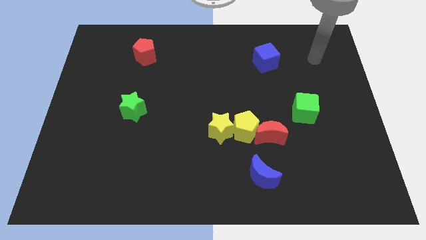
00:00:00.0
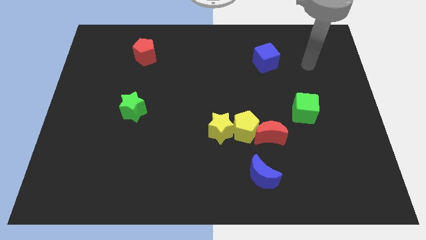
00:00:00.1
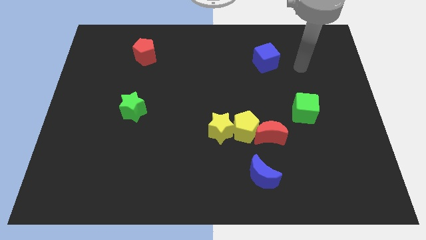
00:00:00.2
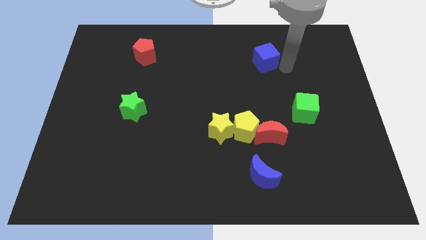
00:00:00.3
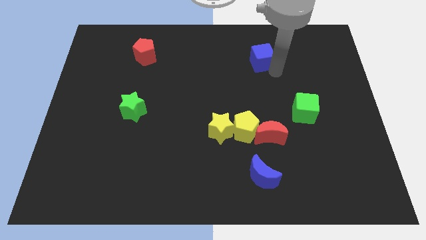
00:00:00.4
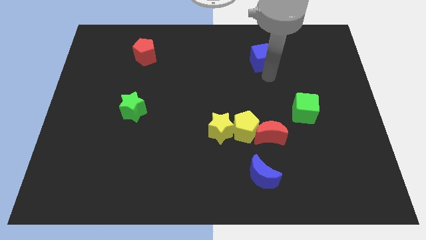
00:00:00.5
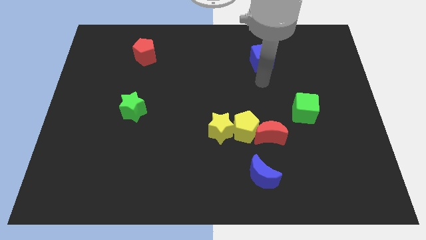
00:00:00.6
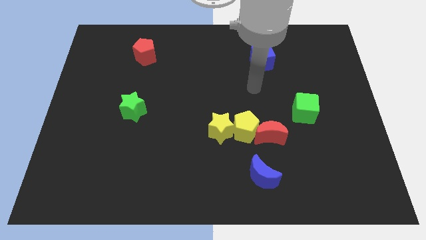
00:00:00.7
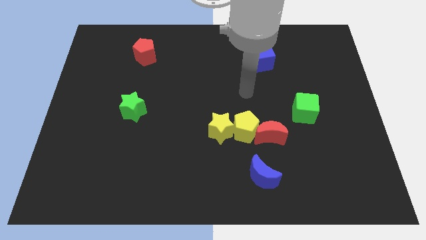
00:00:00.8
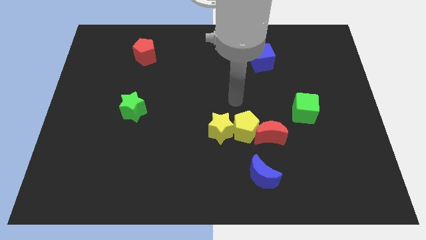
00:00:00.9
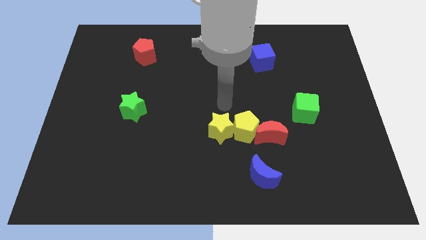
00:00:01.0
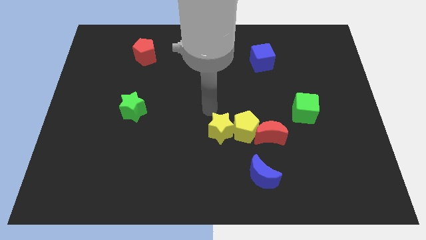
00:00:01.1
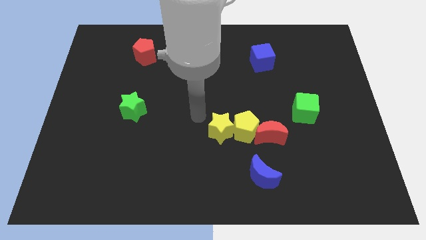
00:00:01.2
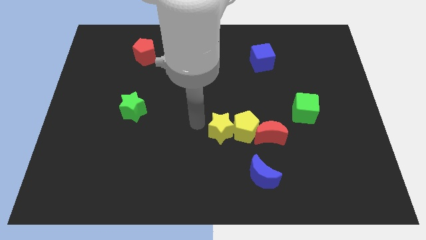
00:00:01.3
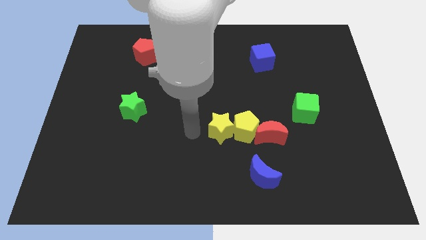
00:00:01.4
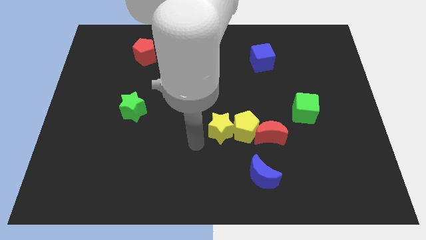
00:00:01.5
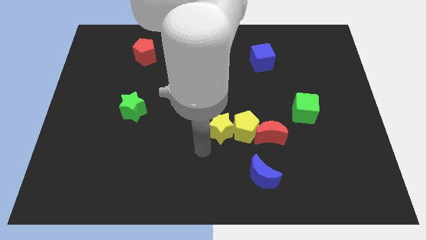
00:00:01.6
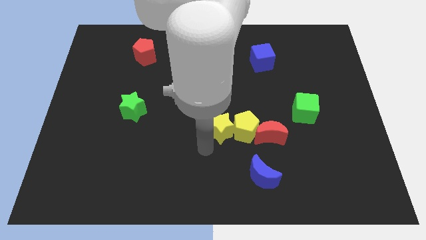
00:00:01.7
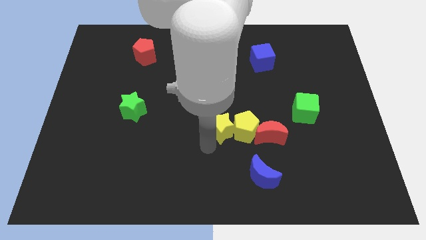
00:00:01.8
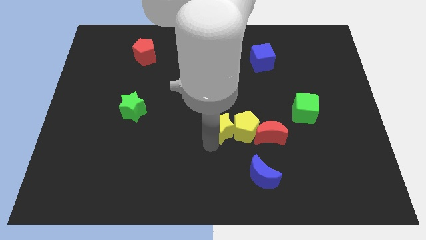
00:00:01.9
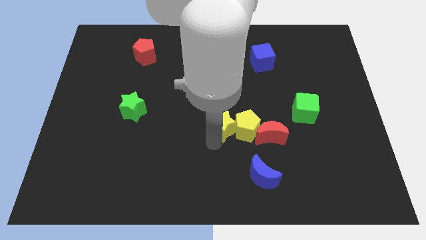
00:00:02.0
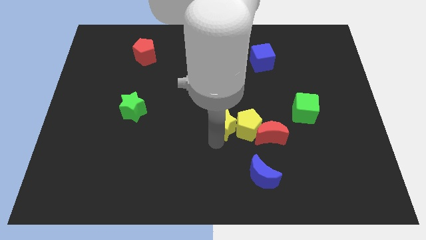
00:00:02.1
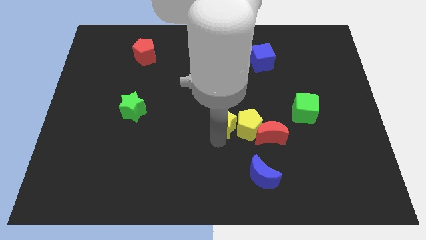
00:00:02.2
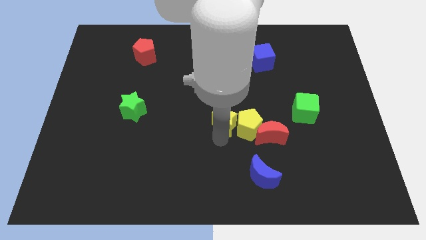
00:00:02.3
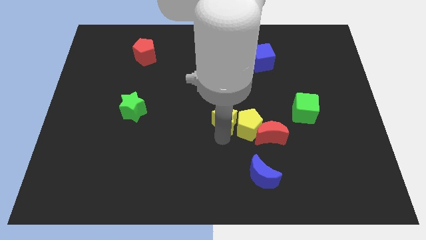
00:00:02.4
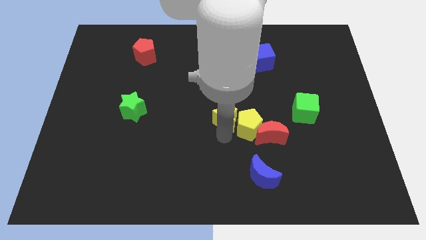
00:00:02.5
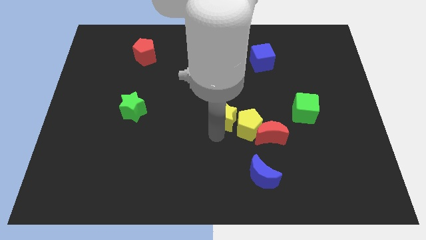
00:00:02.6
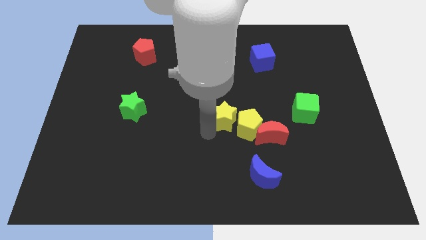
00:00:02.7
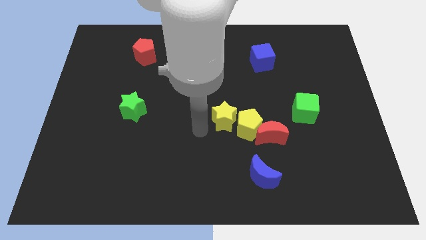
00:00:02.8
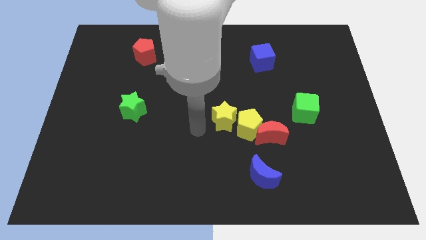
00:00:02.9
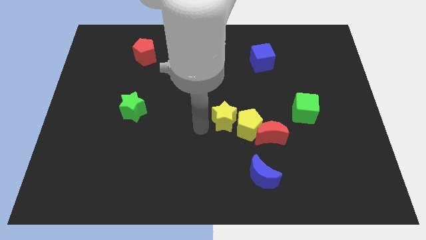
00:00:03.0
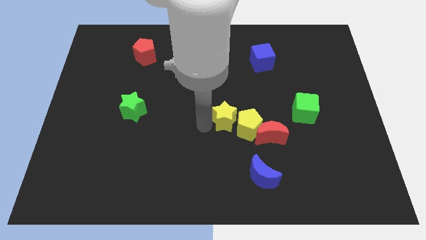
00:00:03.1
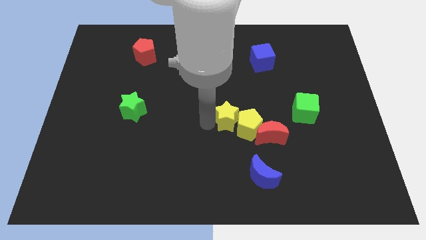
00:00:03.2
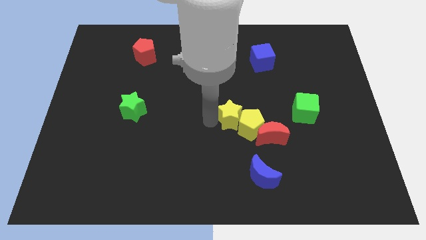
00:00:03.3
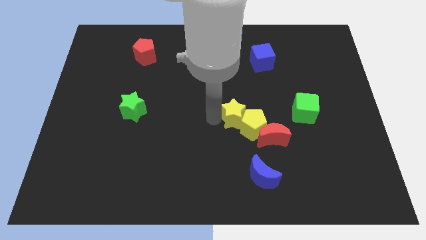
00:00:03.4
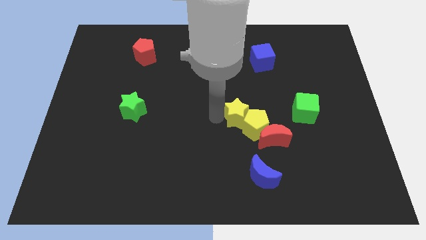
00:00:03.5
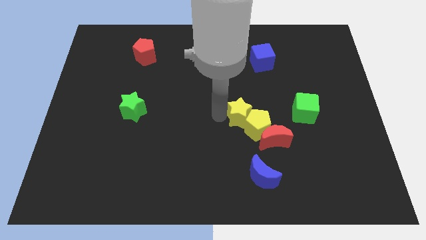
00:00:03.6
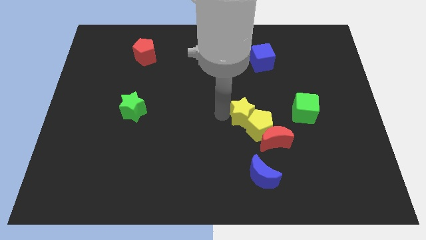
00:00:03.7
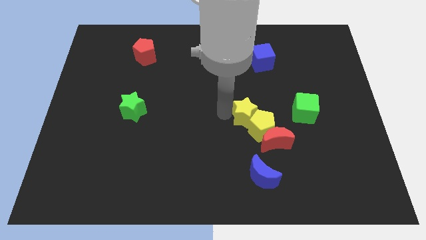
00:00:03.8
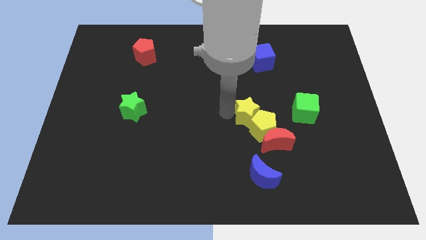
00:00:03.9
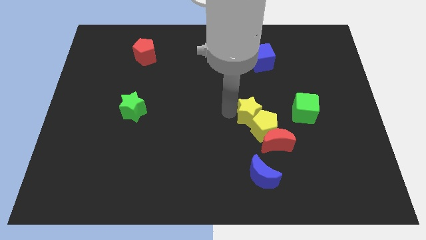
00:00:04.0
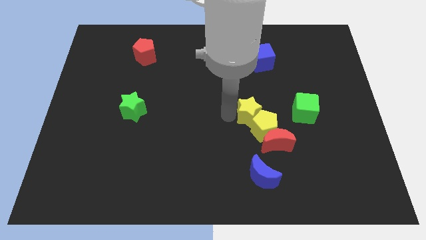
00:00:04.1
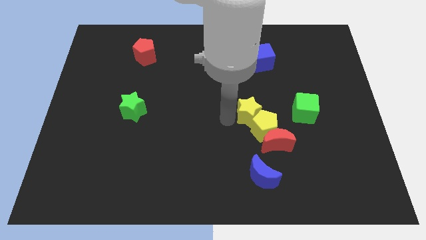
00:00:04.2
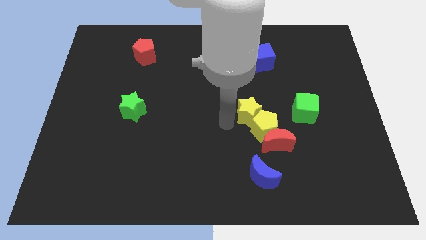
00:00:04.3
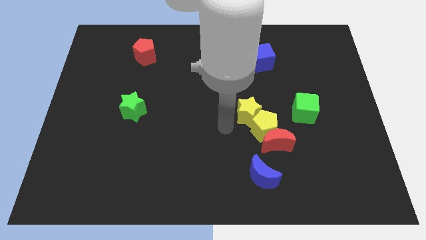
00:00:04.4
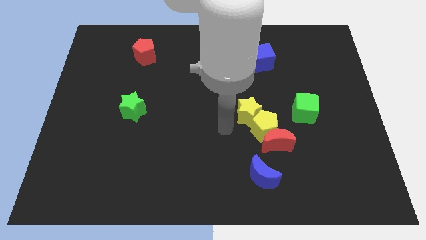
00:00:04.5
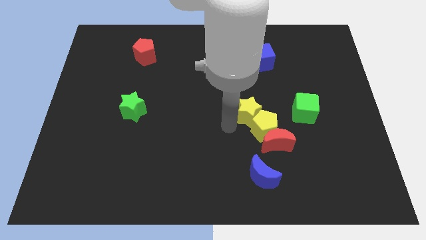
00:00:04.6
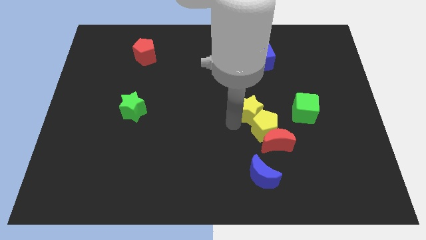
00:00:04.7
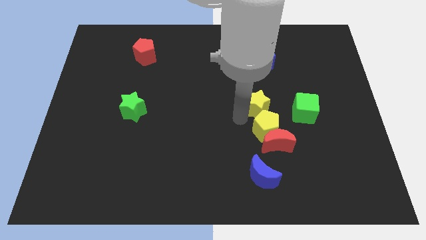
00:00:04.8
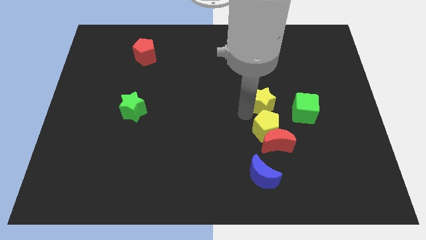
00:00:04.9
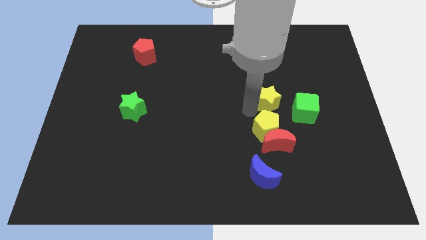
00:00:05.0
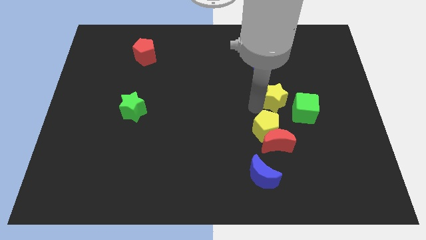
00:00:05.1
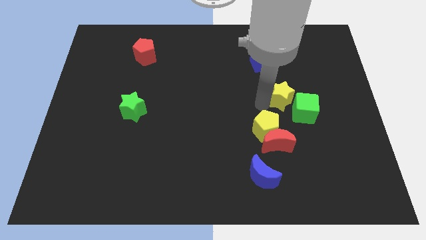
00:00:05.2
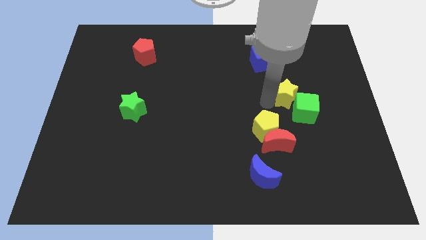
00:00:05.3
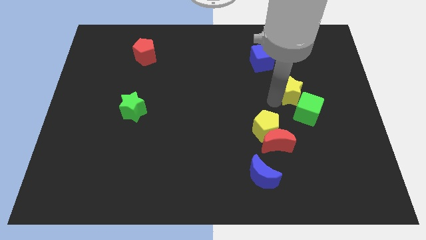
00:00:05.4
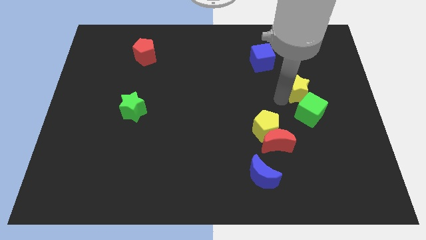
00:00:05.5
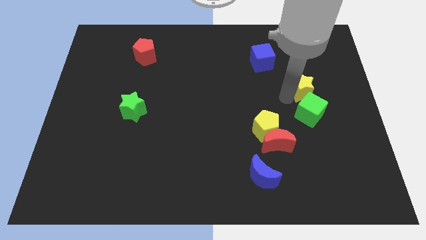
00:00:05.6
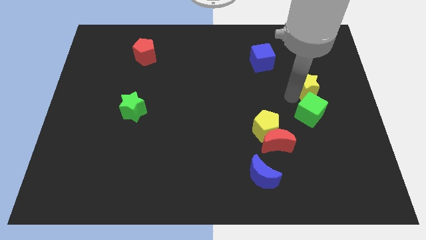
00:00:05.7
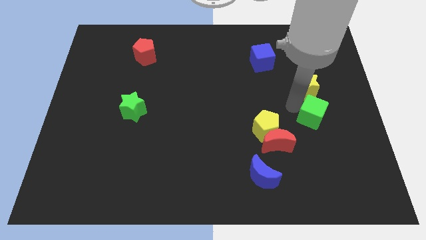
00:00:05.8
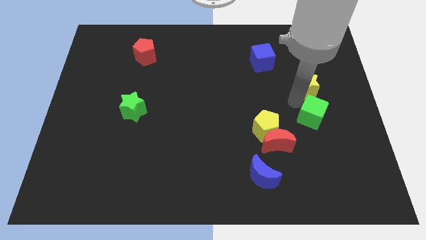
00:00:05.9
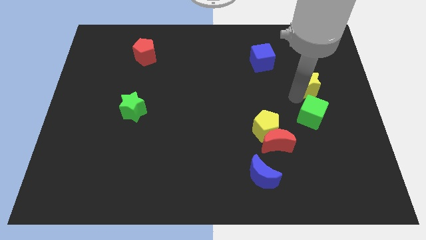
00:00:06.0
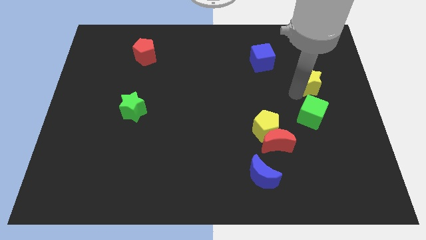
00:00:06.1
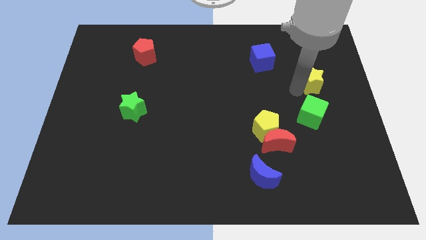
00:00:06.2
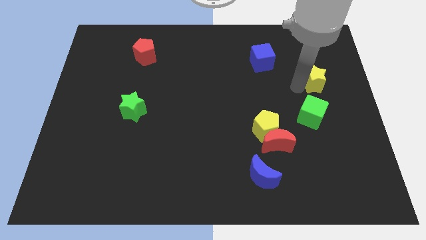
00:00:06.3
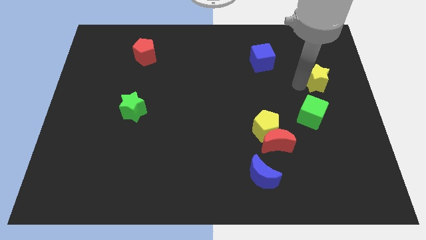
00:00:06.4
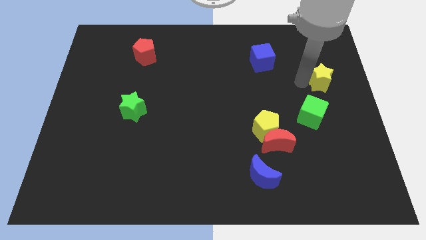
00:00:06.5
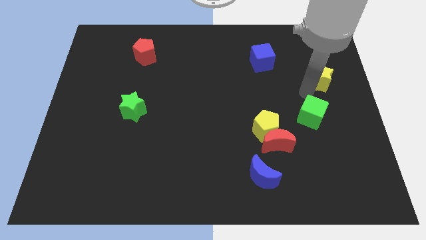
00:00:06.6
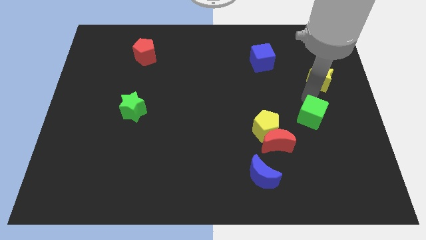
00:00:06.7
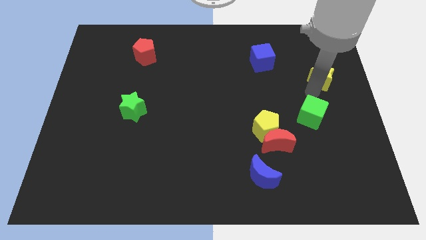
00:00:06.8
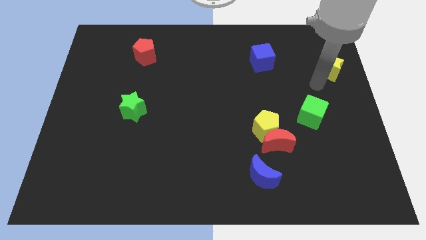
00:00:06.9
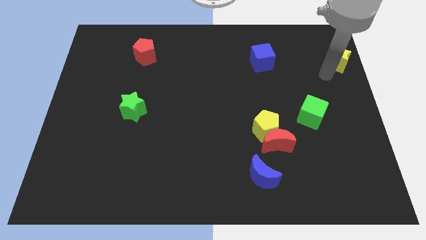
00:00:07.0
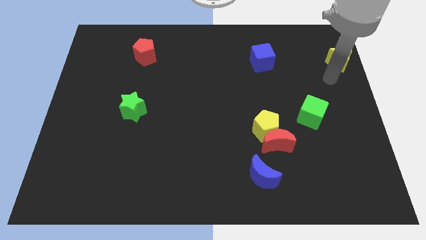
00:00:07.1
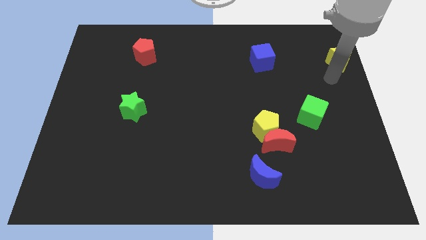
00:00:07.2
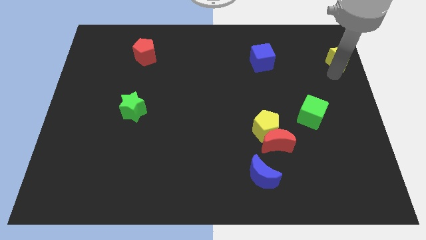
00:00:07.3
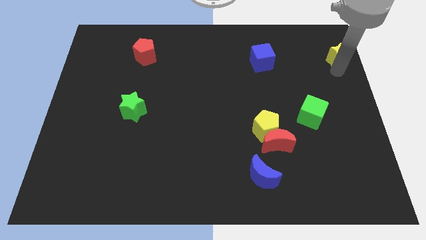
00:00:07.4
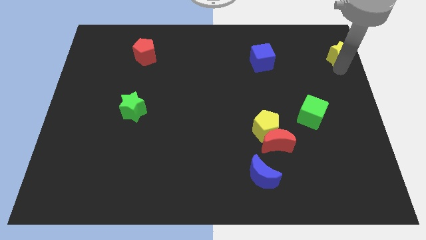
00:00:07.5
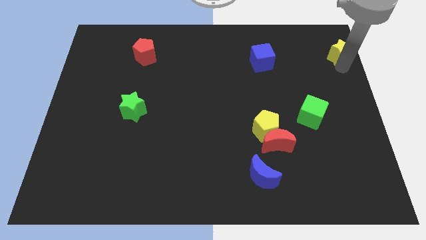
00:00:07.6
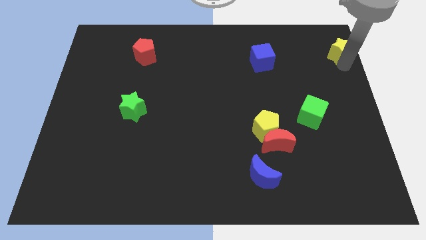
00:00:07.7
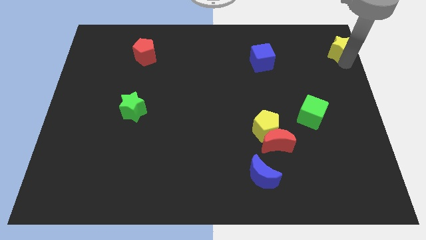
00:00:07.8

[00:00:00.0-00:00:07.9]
move the yellow star to the top right of the board
